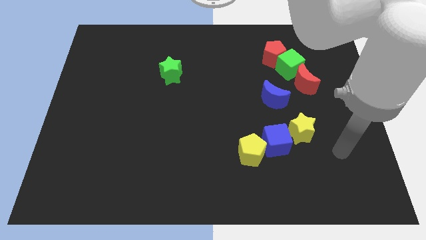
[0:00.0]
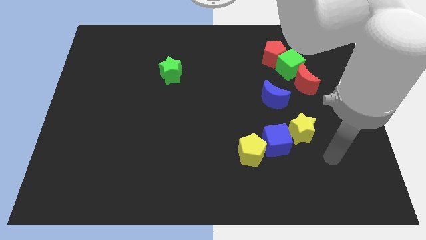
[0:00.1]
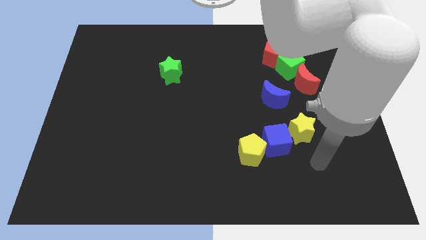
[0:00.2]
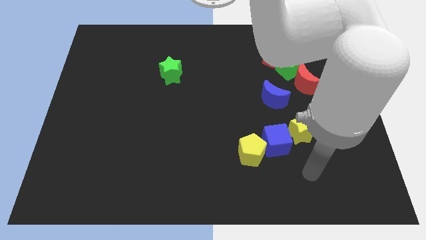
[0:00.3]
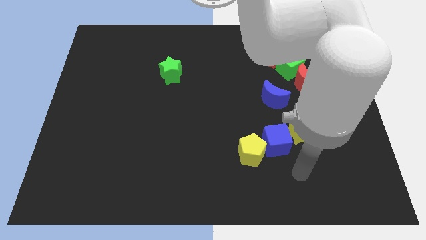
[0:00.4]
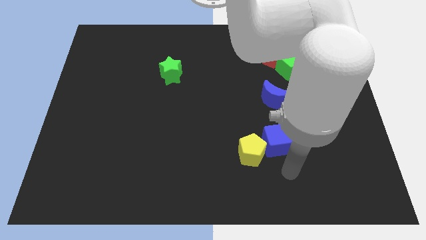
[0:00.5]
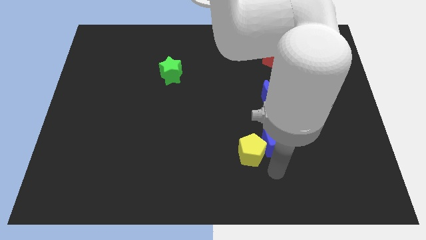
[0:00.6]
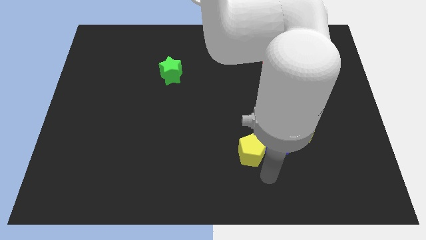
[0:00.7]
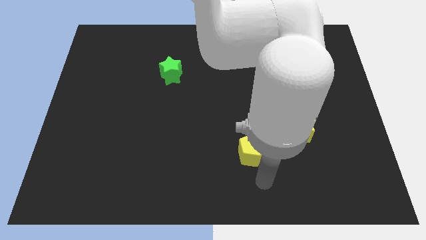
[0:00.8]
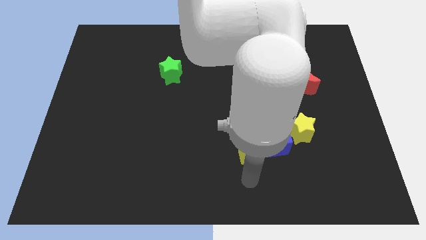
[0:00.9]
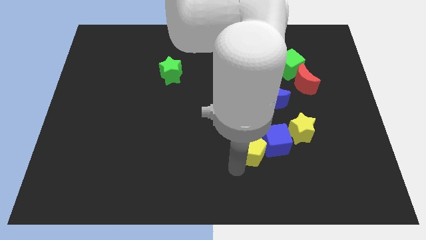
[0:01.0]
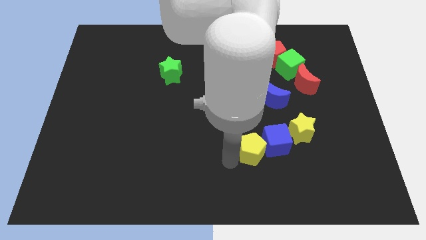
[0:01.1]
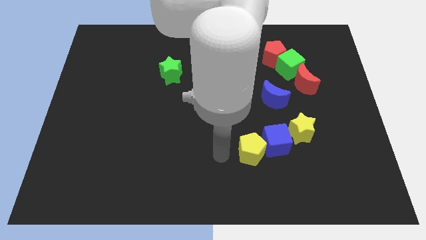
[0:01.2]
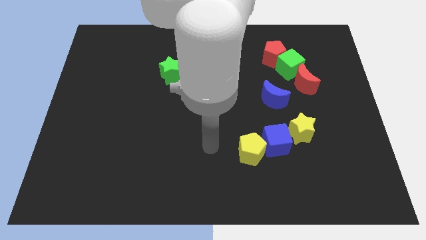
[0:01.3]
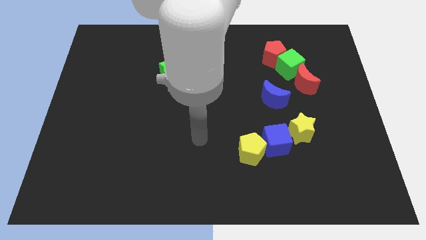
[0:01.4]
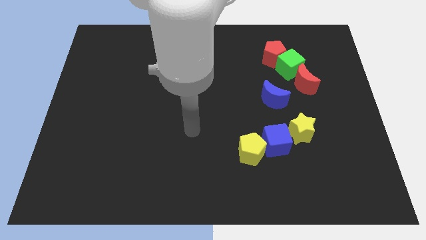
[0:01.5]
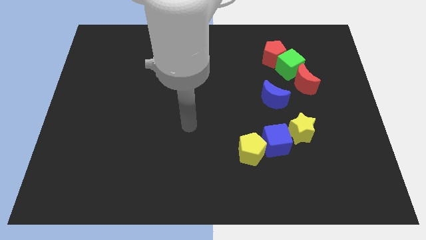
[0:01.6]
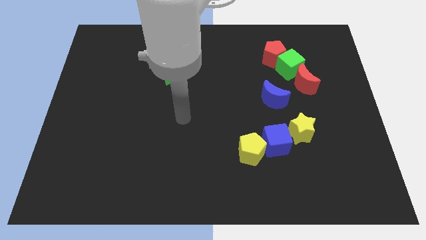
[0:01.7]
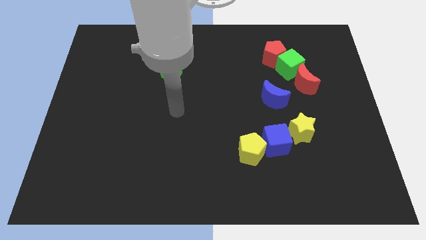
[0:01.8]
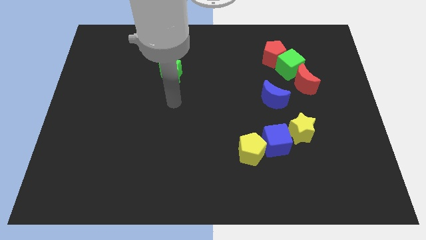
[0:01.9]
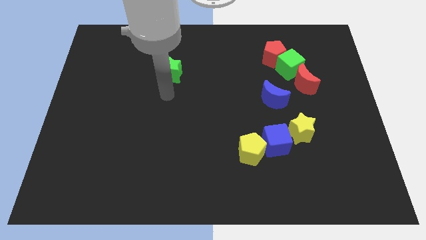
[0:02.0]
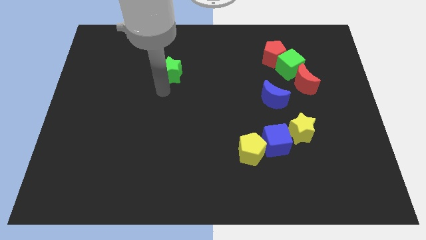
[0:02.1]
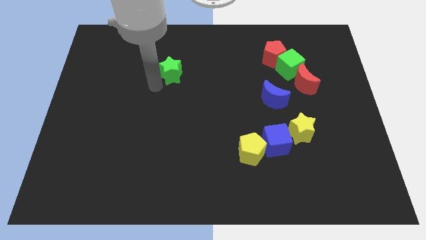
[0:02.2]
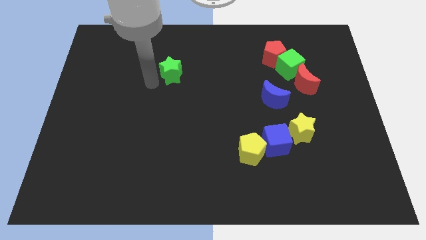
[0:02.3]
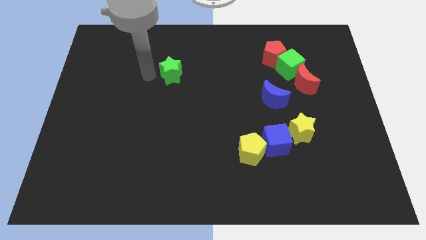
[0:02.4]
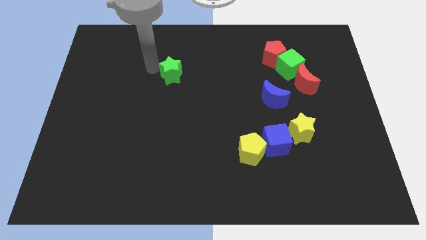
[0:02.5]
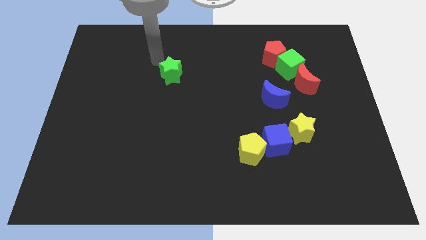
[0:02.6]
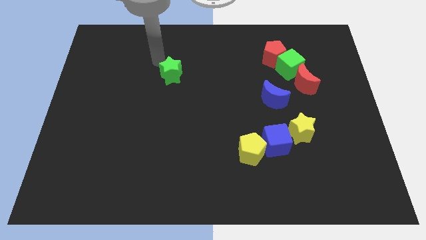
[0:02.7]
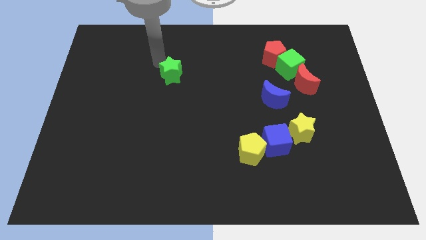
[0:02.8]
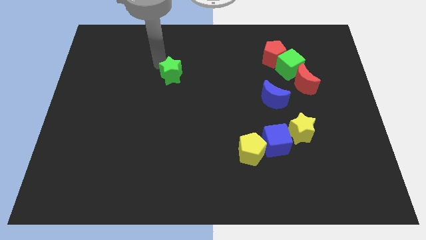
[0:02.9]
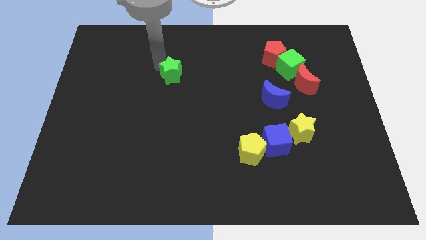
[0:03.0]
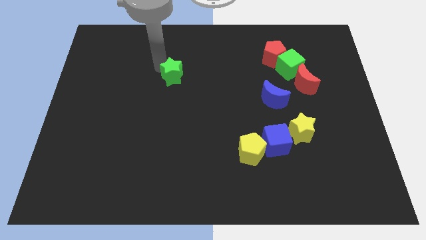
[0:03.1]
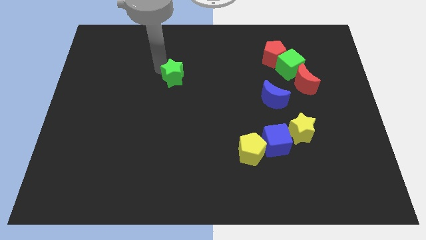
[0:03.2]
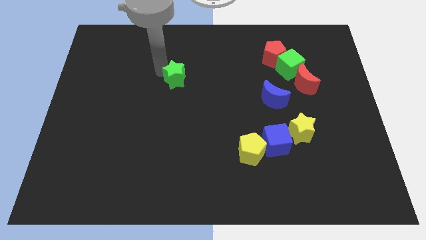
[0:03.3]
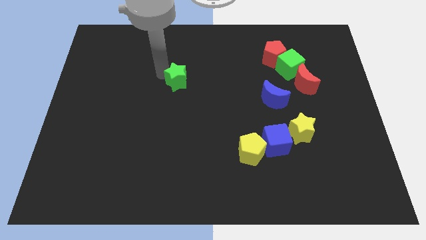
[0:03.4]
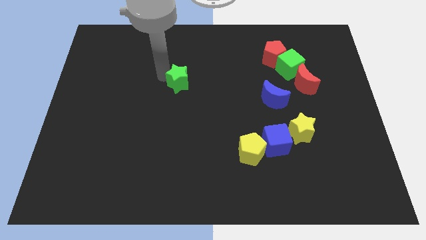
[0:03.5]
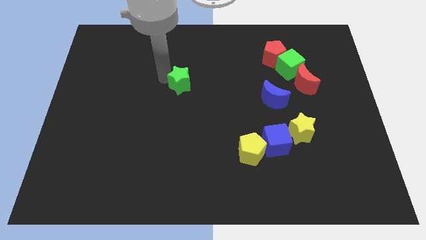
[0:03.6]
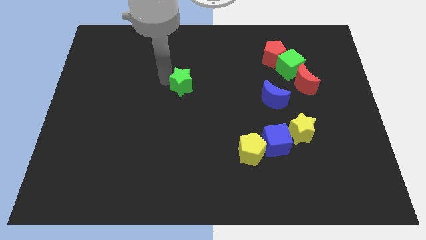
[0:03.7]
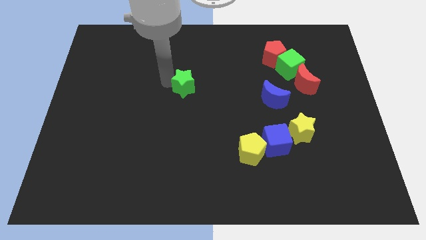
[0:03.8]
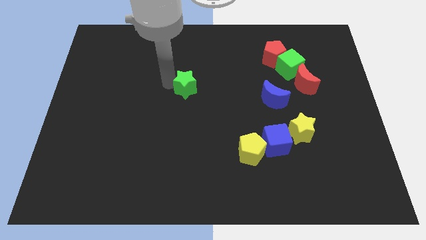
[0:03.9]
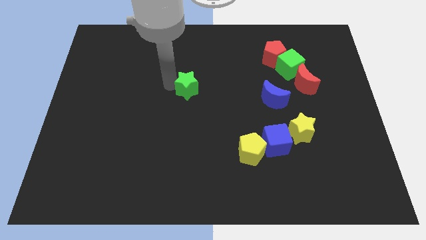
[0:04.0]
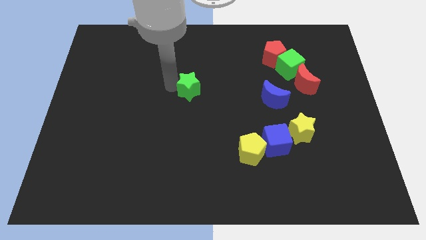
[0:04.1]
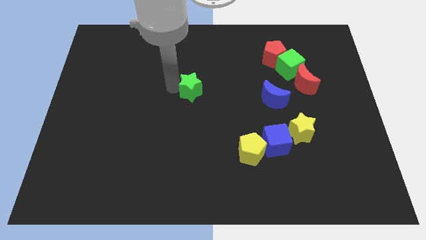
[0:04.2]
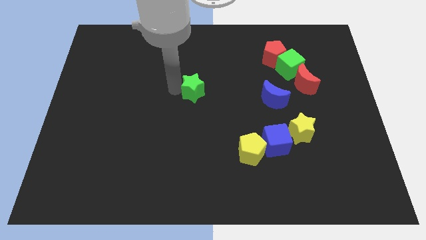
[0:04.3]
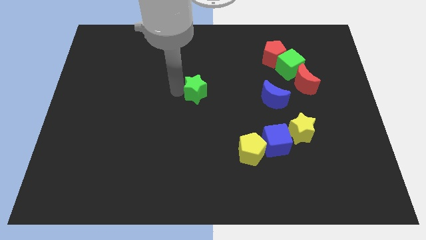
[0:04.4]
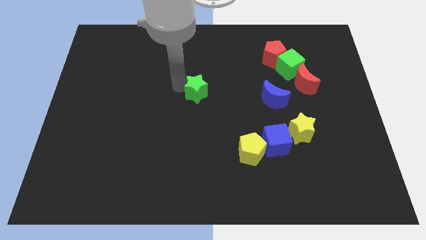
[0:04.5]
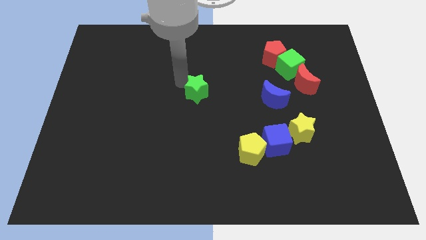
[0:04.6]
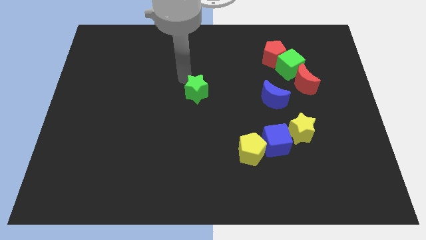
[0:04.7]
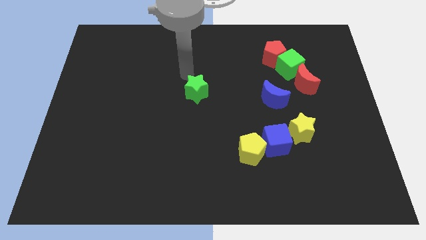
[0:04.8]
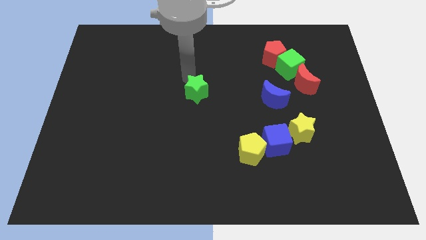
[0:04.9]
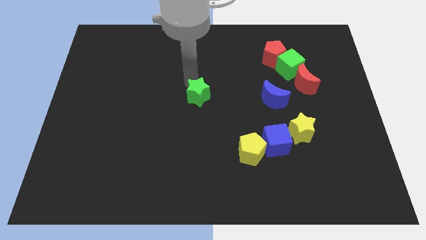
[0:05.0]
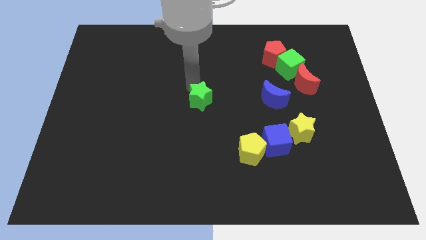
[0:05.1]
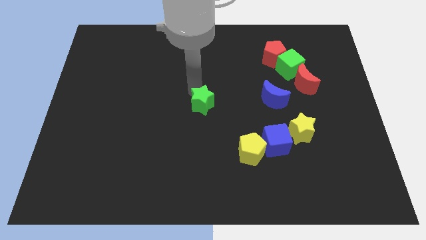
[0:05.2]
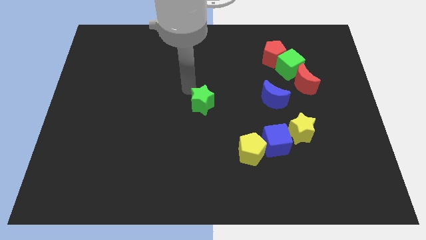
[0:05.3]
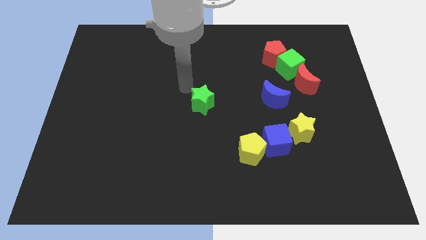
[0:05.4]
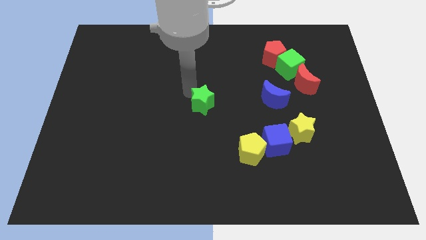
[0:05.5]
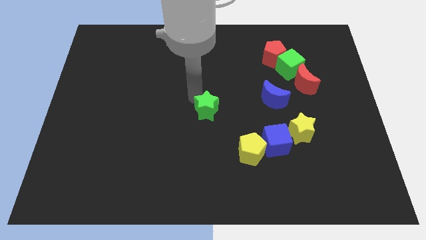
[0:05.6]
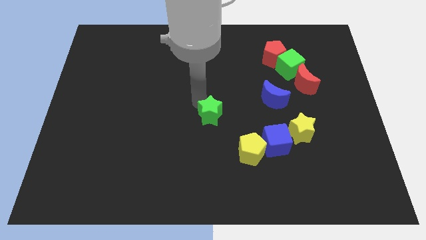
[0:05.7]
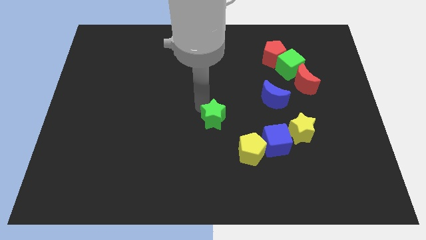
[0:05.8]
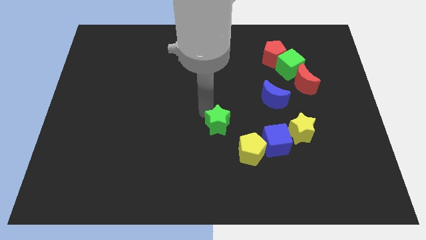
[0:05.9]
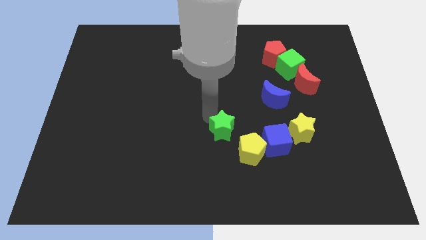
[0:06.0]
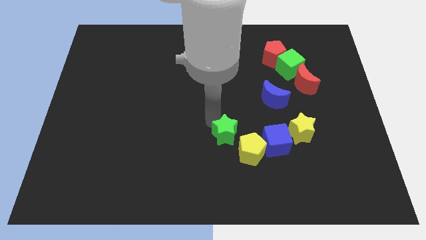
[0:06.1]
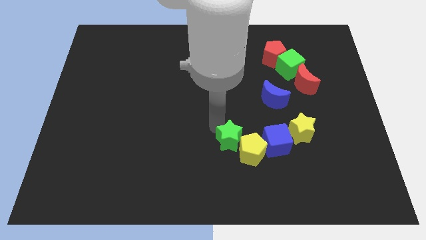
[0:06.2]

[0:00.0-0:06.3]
push the green star next to the yellow pentagon

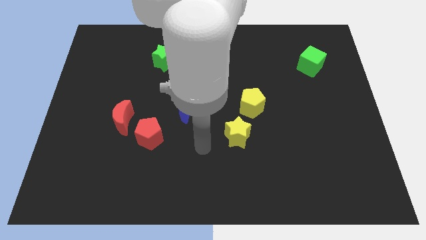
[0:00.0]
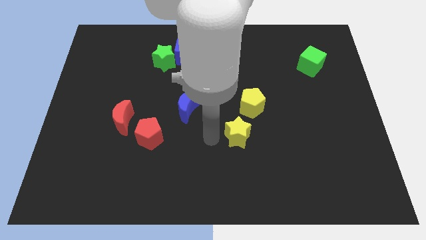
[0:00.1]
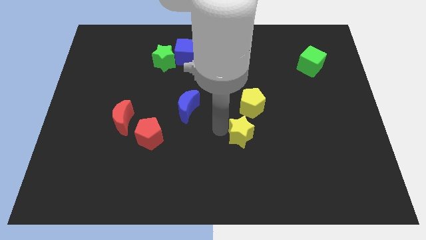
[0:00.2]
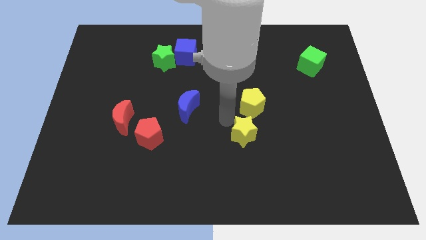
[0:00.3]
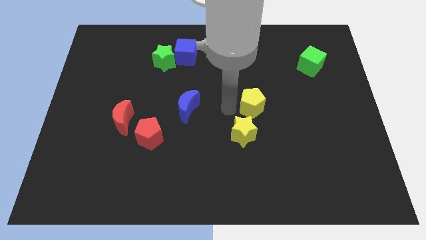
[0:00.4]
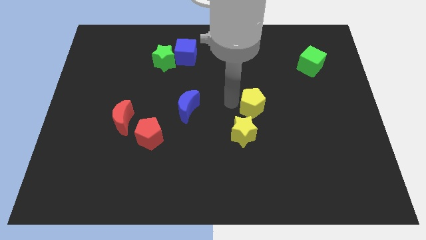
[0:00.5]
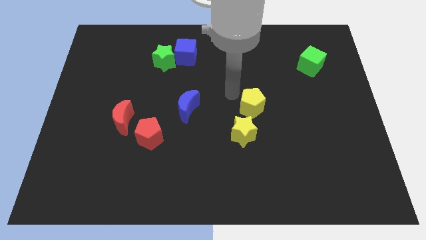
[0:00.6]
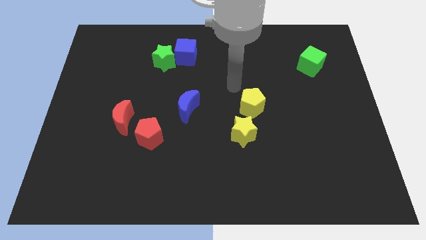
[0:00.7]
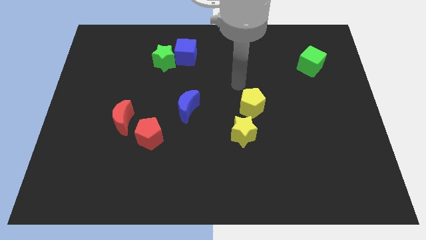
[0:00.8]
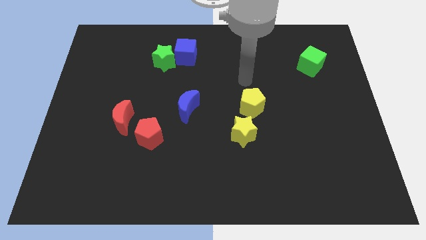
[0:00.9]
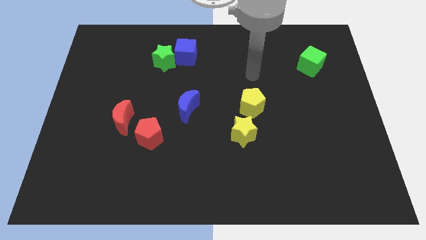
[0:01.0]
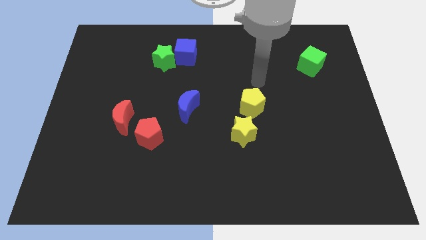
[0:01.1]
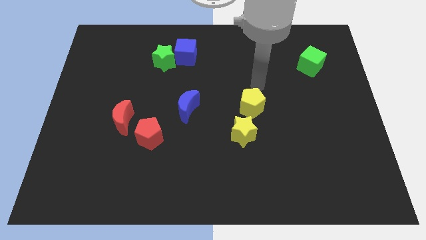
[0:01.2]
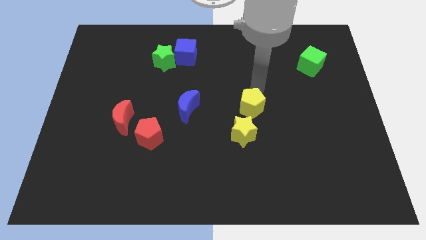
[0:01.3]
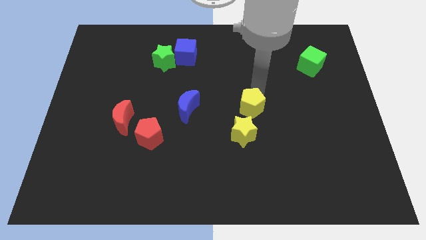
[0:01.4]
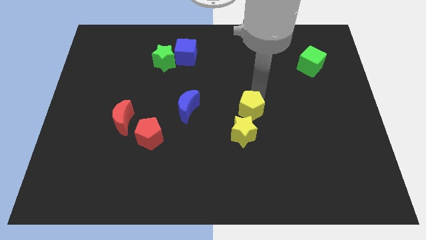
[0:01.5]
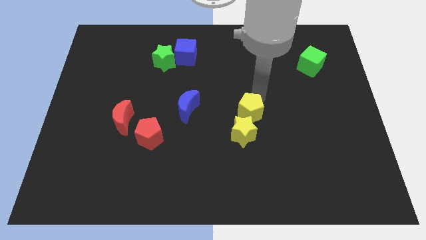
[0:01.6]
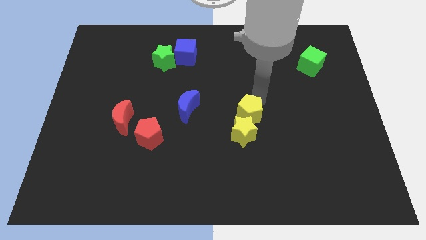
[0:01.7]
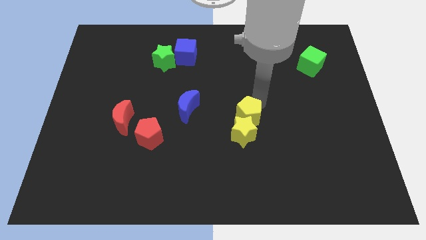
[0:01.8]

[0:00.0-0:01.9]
slide the yellow pentagon next to the yellow star
